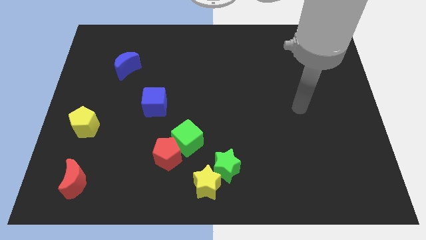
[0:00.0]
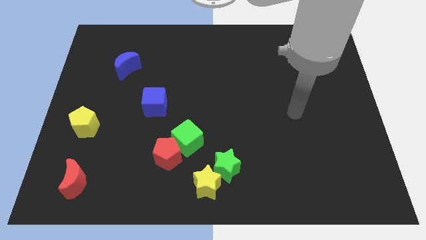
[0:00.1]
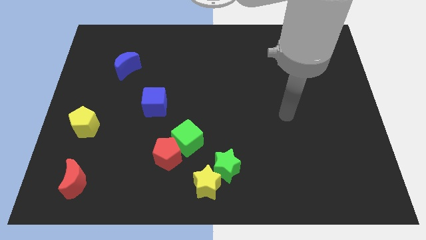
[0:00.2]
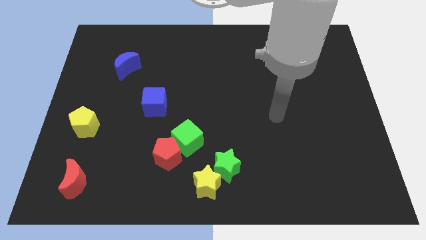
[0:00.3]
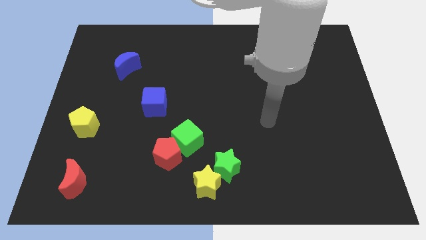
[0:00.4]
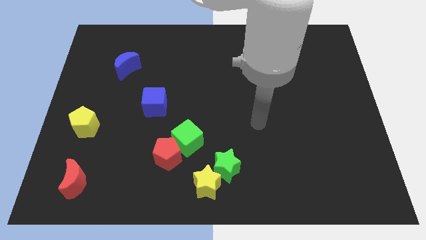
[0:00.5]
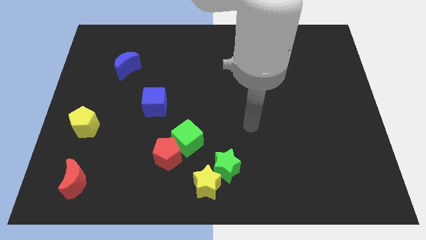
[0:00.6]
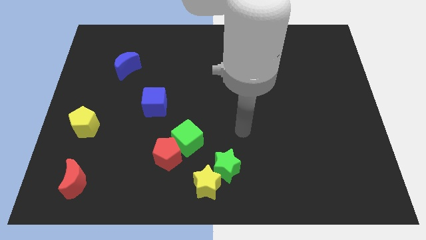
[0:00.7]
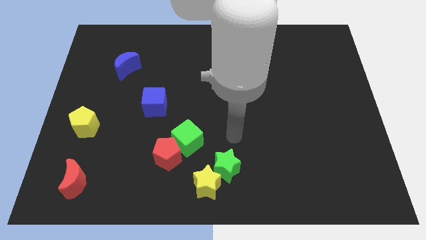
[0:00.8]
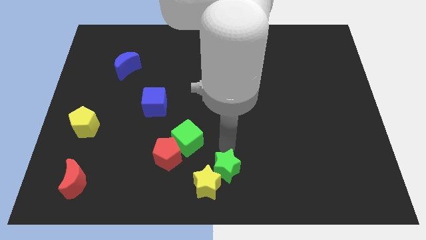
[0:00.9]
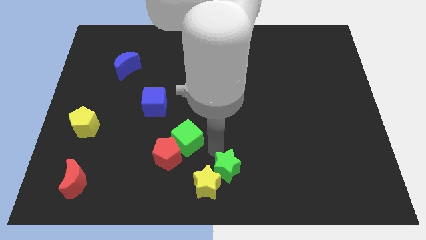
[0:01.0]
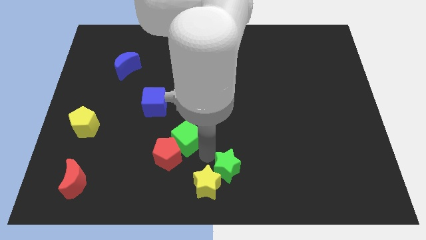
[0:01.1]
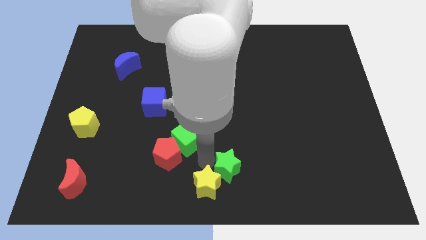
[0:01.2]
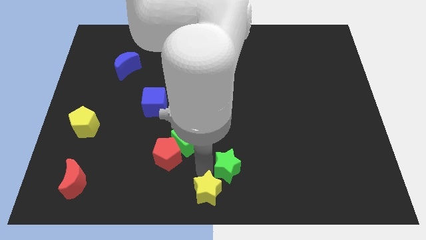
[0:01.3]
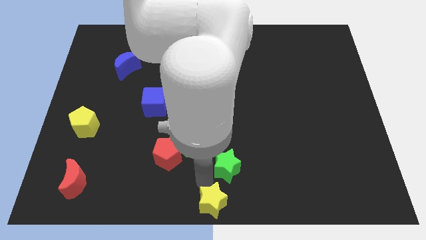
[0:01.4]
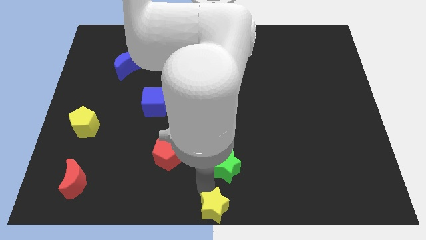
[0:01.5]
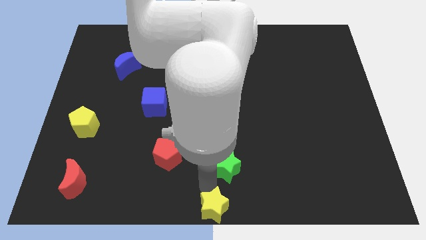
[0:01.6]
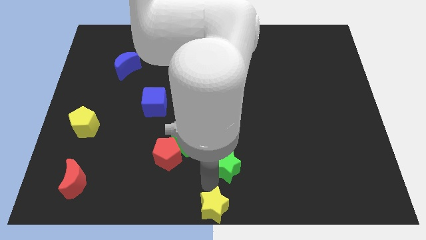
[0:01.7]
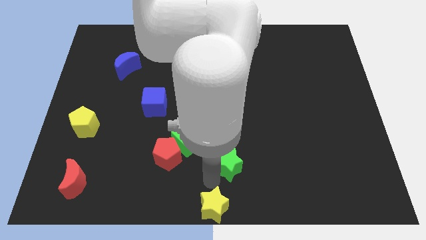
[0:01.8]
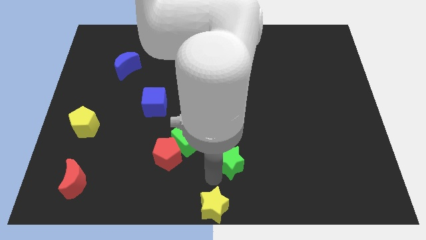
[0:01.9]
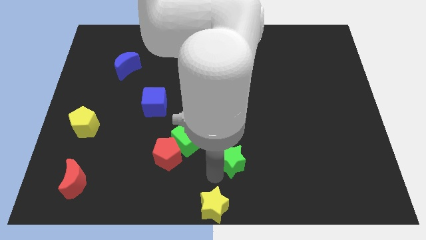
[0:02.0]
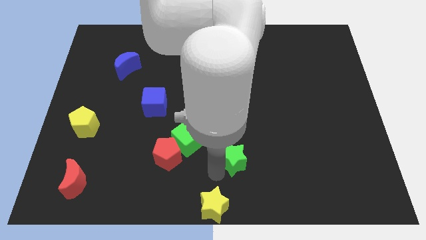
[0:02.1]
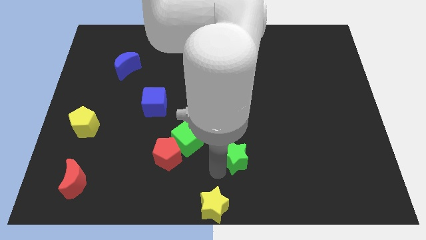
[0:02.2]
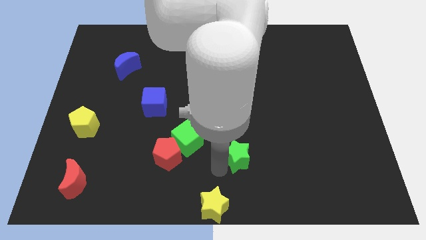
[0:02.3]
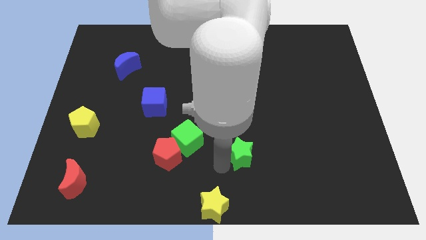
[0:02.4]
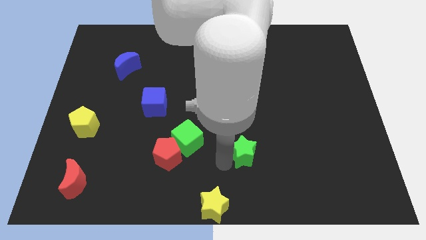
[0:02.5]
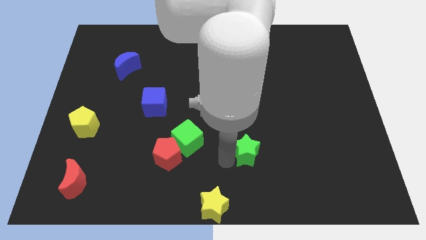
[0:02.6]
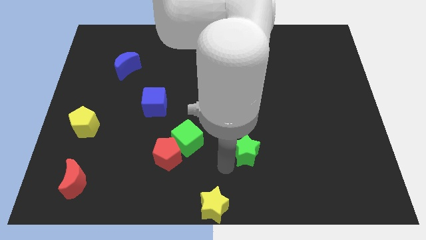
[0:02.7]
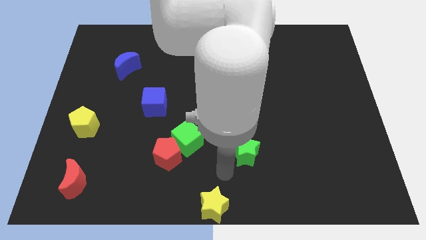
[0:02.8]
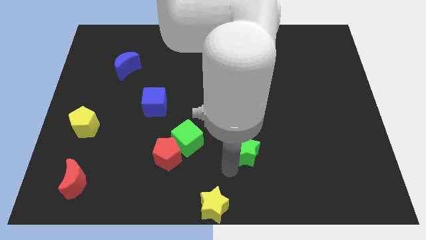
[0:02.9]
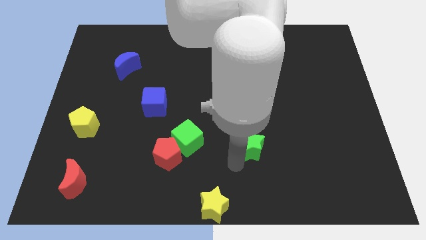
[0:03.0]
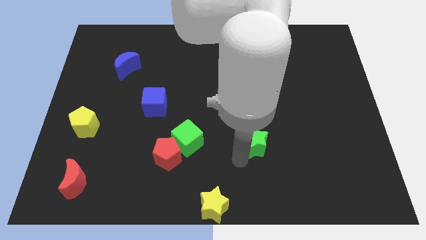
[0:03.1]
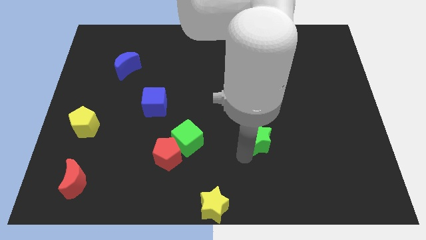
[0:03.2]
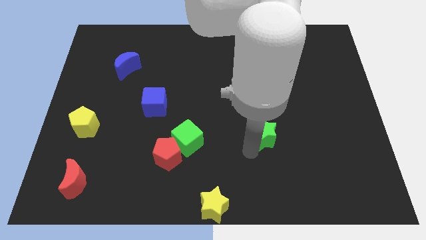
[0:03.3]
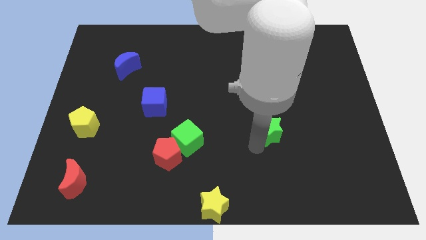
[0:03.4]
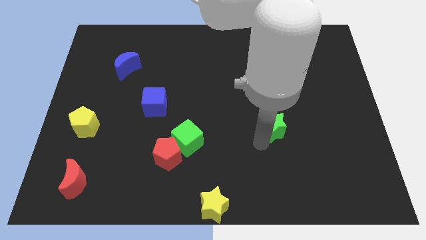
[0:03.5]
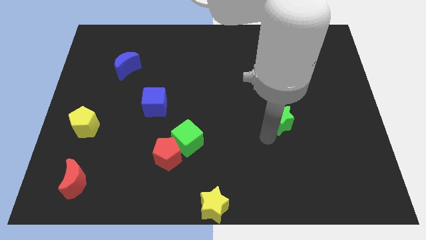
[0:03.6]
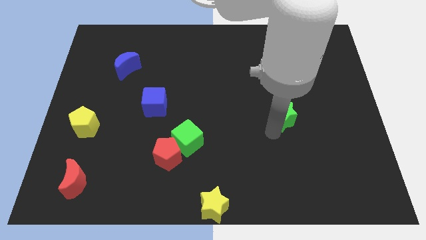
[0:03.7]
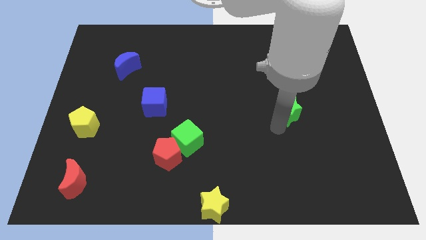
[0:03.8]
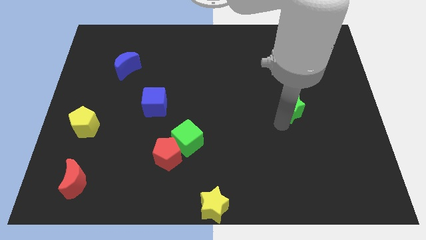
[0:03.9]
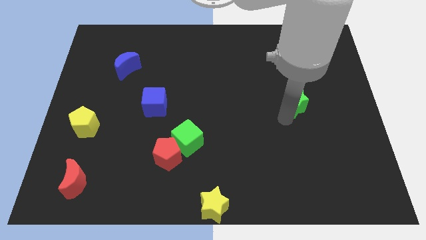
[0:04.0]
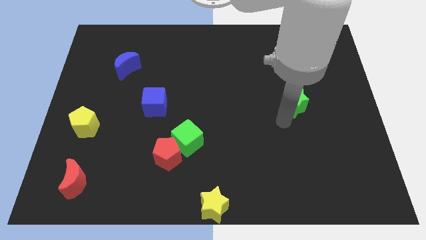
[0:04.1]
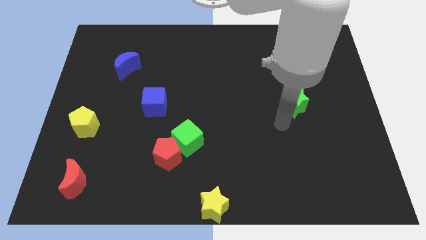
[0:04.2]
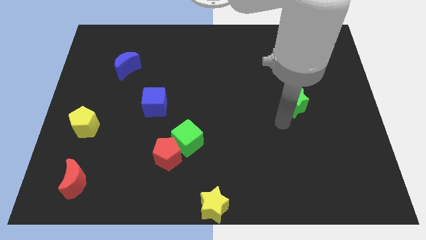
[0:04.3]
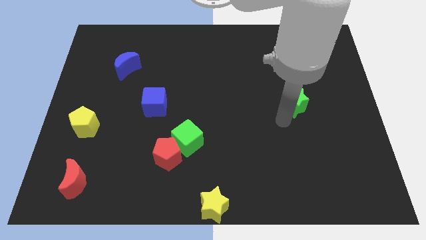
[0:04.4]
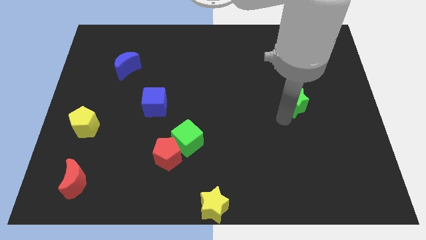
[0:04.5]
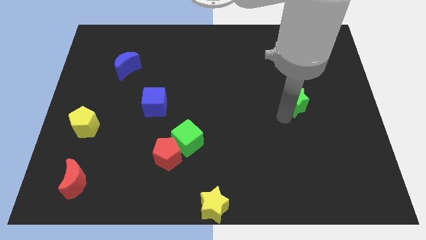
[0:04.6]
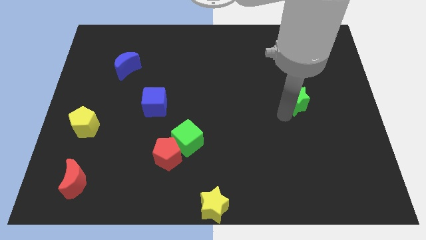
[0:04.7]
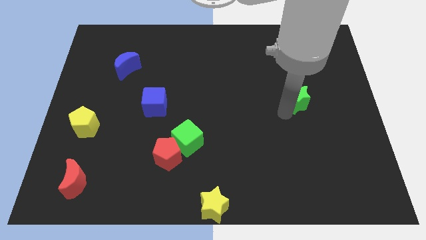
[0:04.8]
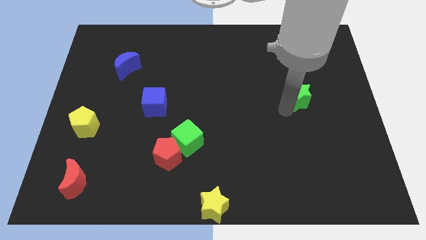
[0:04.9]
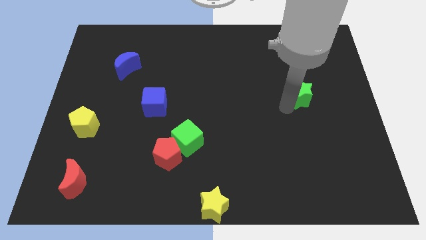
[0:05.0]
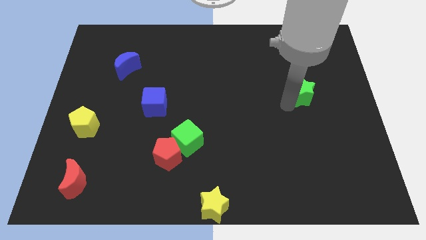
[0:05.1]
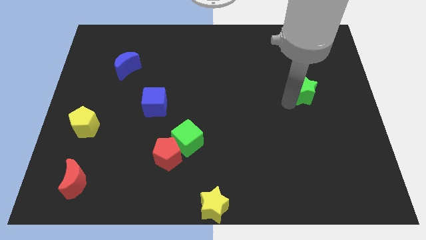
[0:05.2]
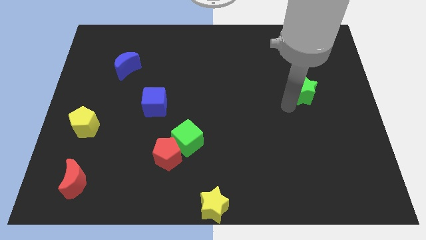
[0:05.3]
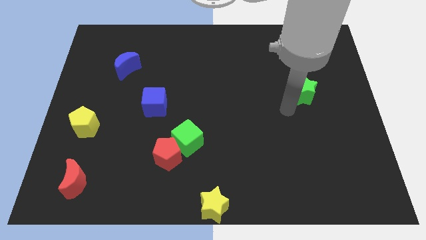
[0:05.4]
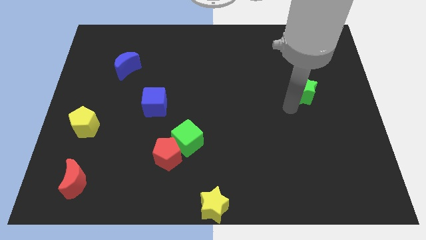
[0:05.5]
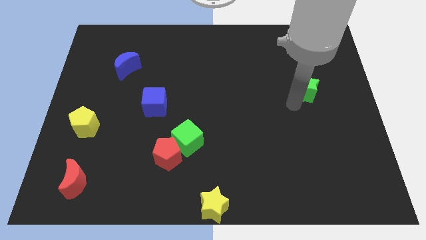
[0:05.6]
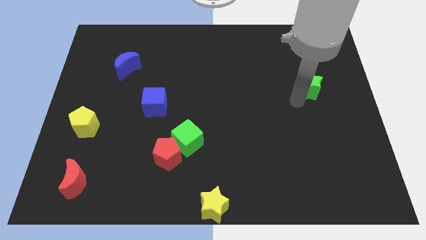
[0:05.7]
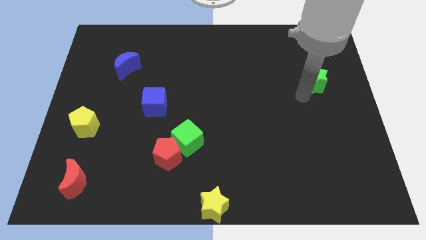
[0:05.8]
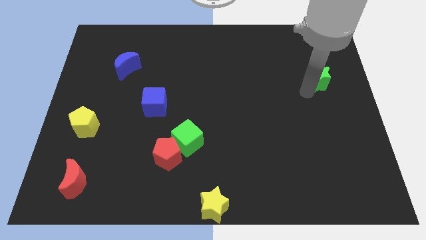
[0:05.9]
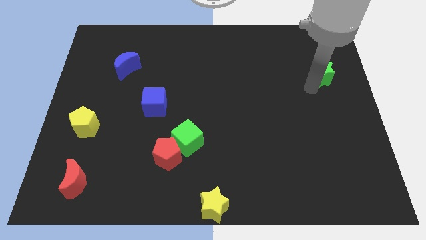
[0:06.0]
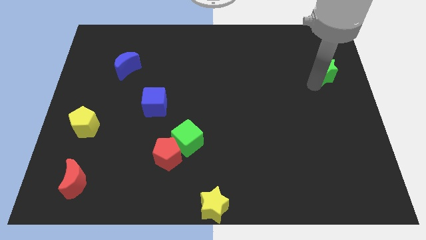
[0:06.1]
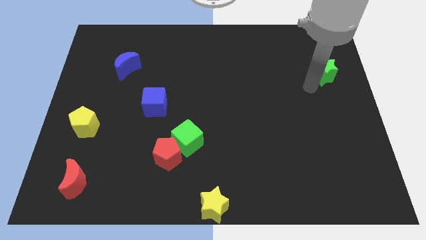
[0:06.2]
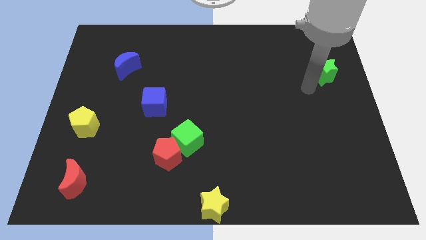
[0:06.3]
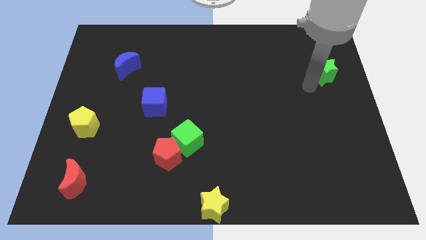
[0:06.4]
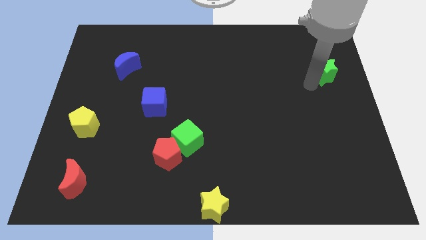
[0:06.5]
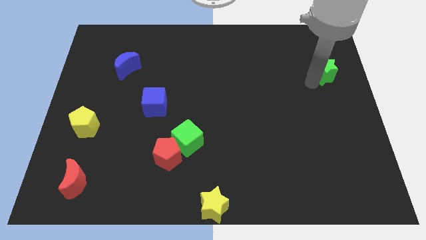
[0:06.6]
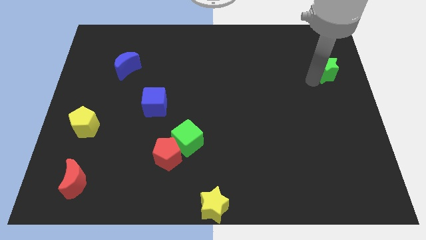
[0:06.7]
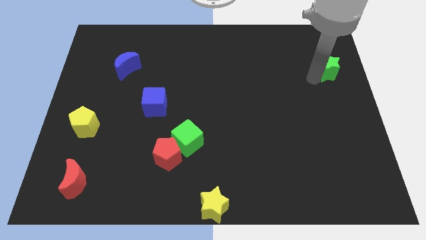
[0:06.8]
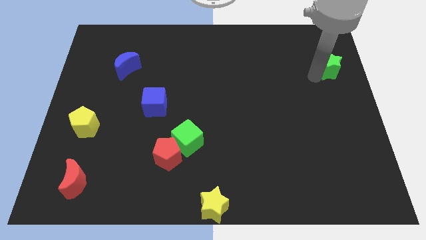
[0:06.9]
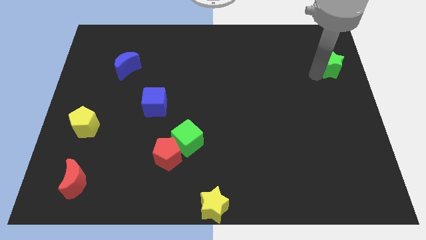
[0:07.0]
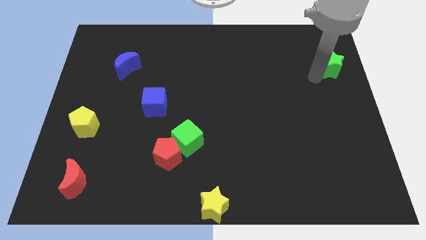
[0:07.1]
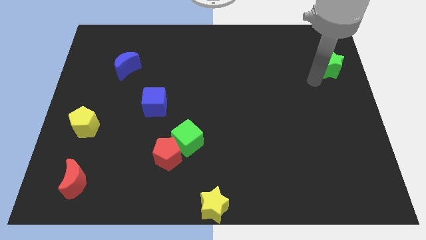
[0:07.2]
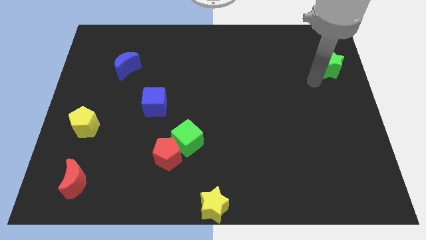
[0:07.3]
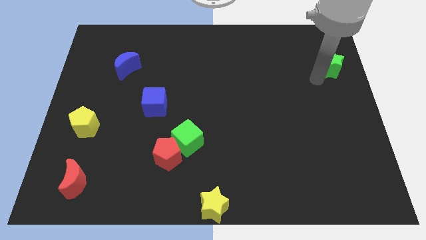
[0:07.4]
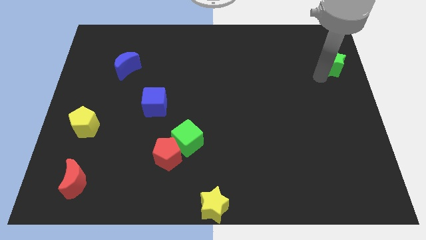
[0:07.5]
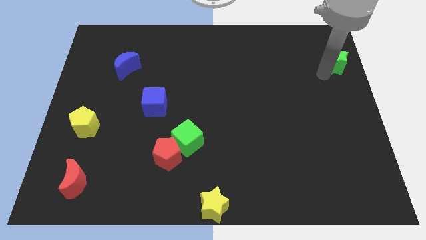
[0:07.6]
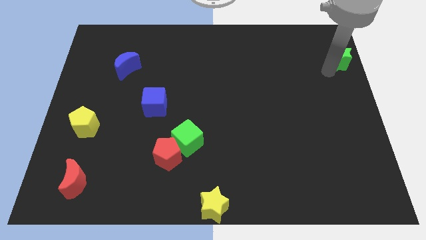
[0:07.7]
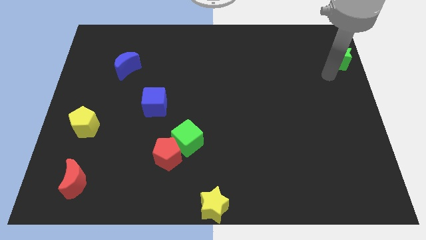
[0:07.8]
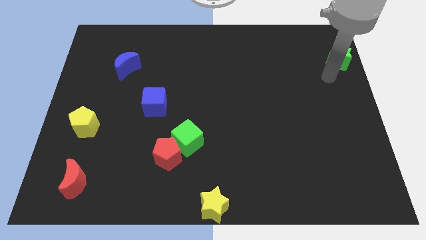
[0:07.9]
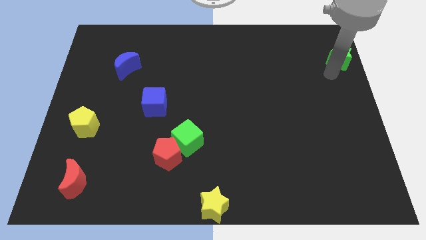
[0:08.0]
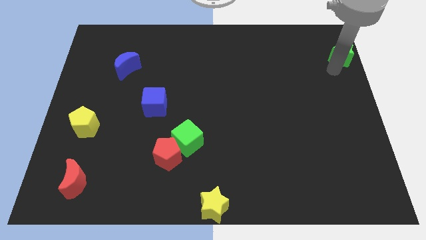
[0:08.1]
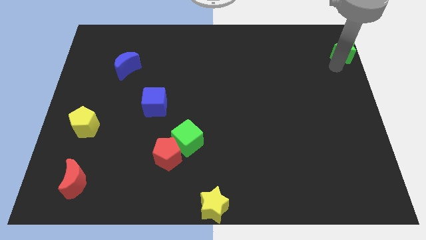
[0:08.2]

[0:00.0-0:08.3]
move the green star to the upper right corner
